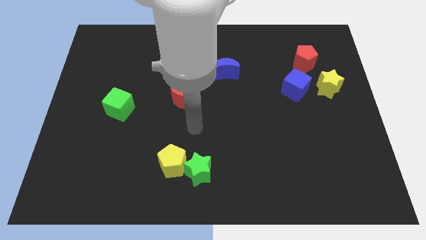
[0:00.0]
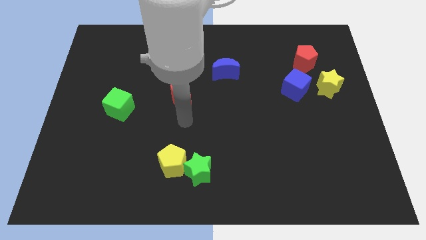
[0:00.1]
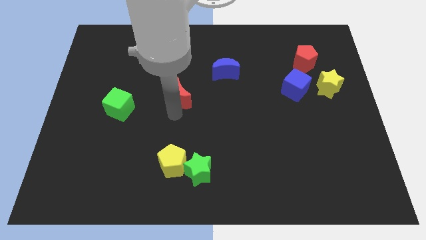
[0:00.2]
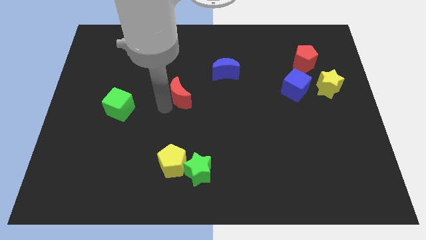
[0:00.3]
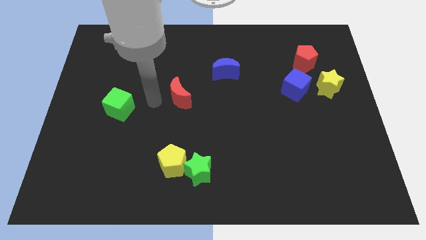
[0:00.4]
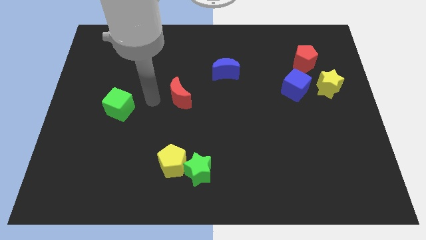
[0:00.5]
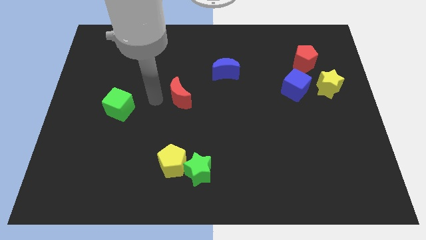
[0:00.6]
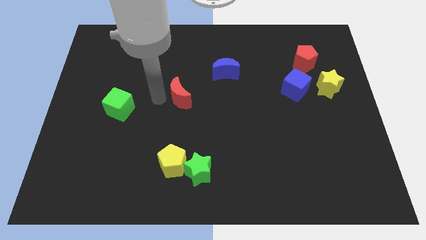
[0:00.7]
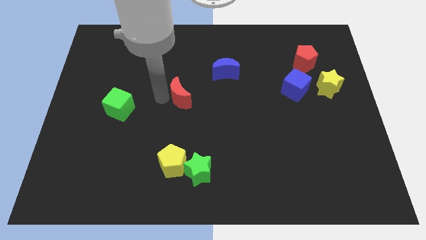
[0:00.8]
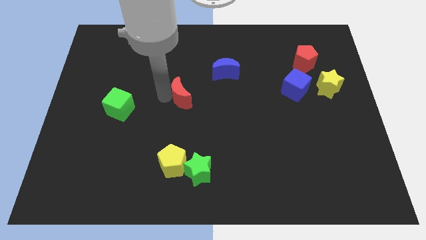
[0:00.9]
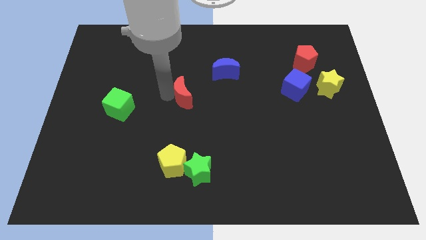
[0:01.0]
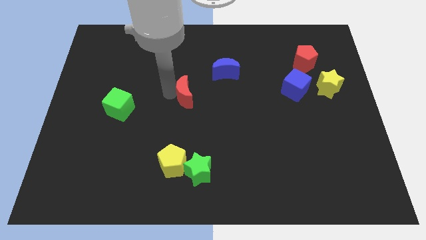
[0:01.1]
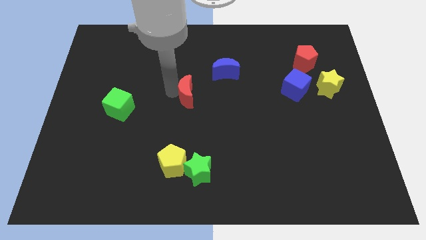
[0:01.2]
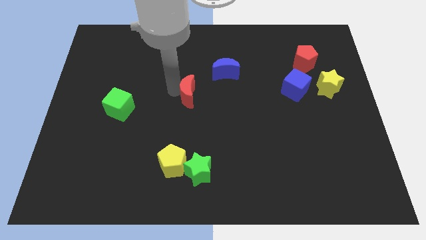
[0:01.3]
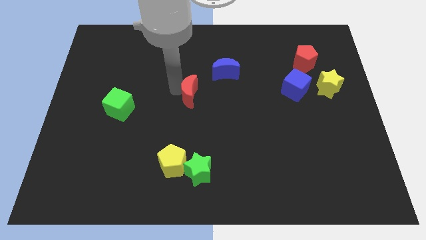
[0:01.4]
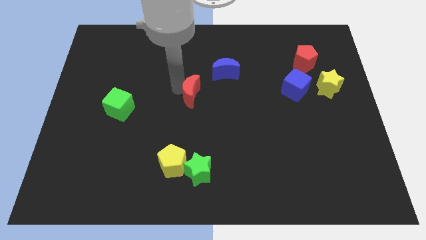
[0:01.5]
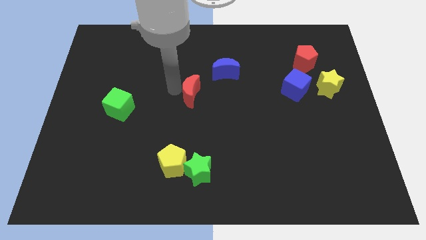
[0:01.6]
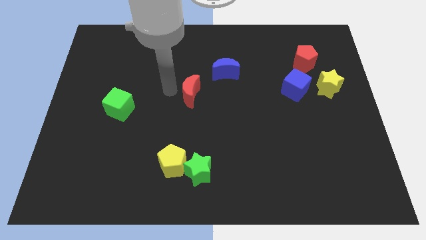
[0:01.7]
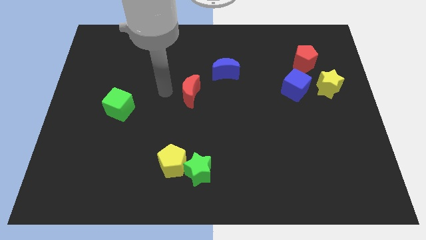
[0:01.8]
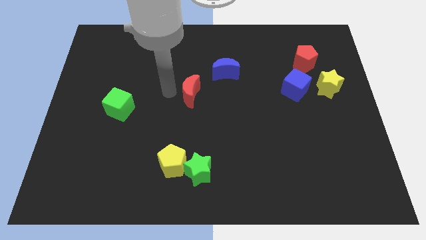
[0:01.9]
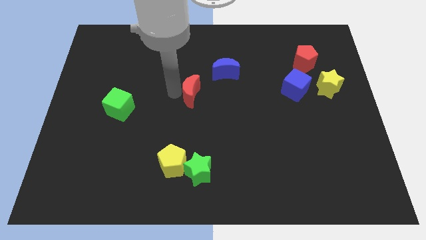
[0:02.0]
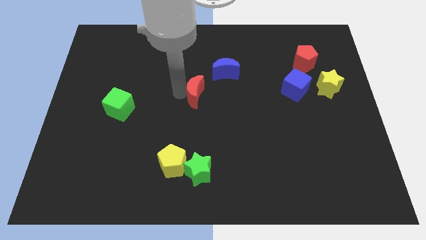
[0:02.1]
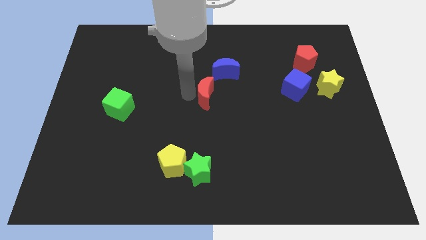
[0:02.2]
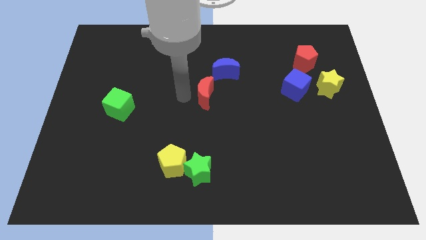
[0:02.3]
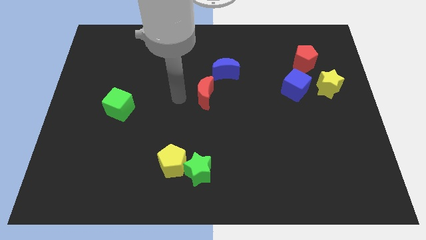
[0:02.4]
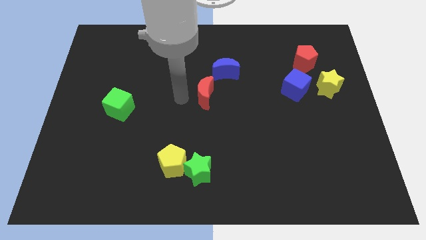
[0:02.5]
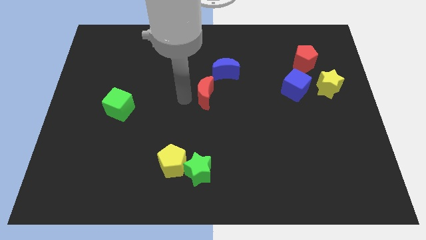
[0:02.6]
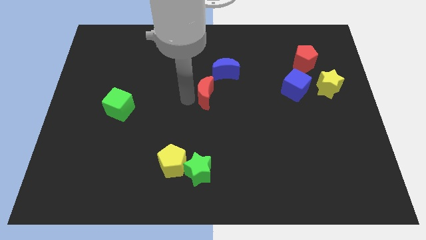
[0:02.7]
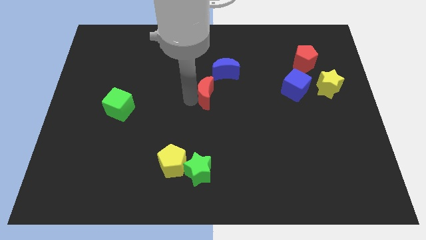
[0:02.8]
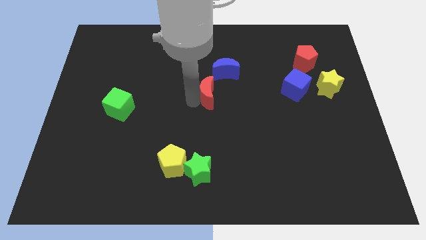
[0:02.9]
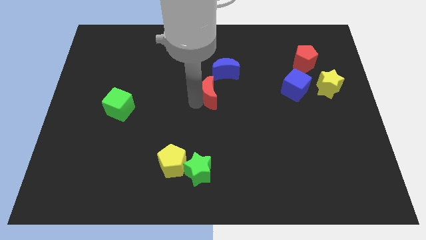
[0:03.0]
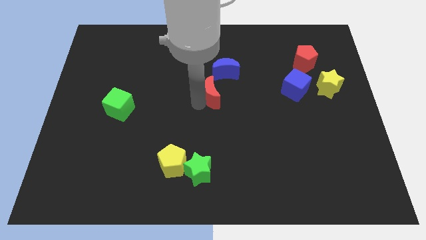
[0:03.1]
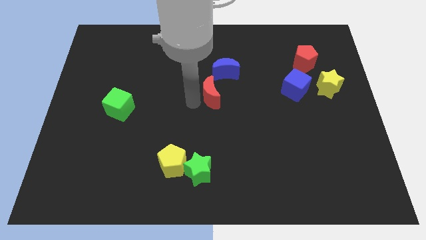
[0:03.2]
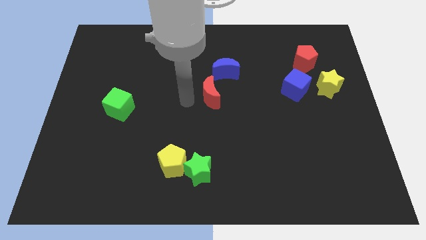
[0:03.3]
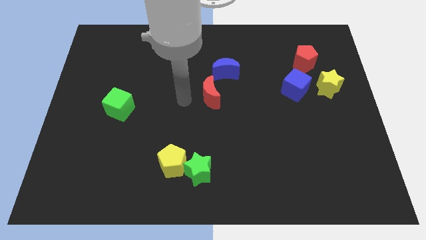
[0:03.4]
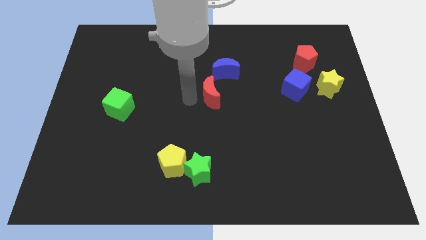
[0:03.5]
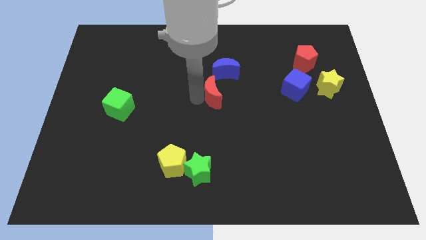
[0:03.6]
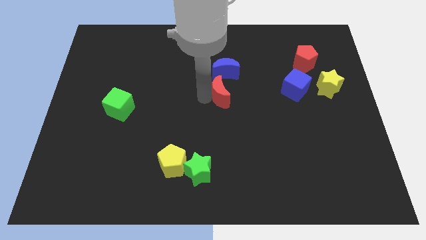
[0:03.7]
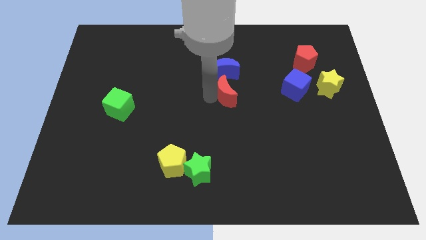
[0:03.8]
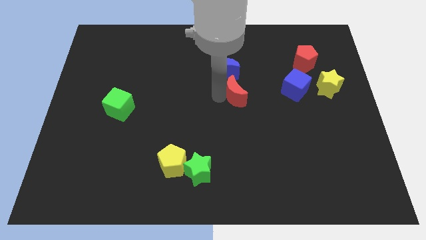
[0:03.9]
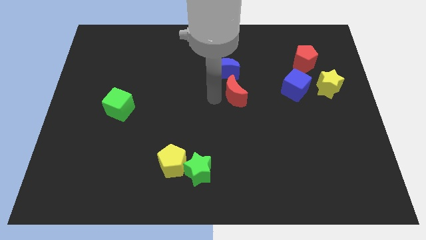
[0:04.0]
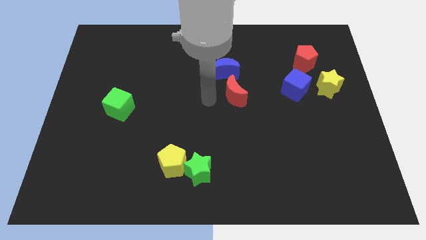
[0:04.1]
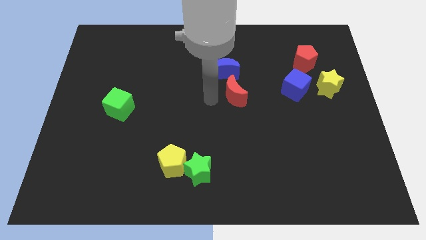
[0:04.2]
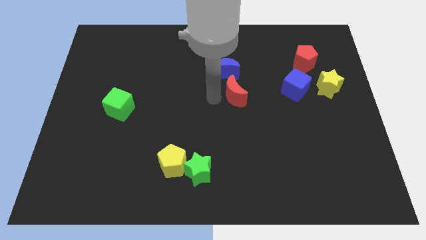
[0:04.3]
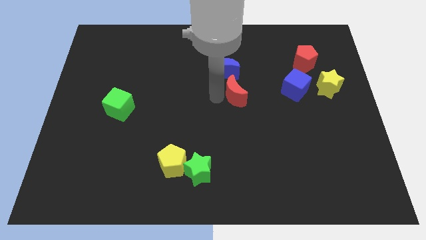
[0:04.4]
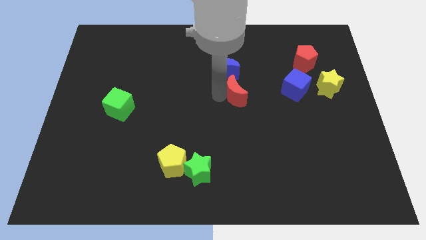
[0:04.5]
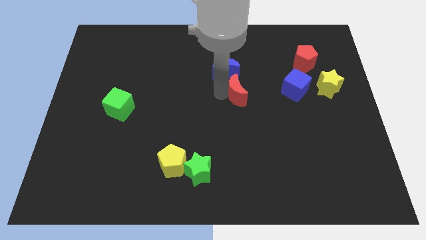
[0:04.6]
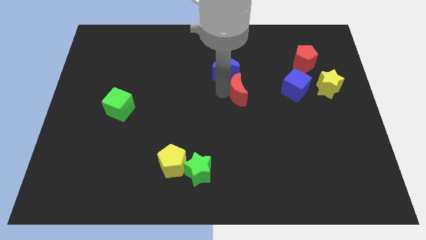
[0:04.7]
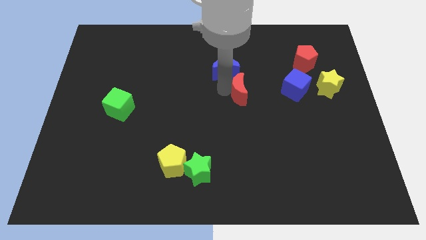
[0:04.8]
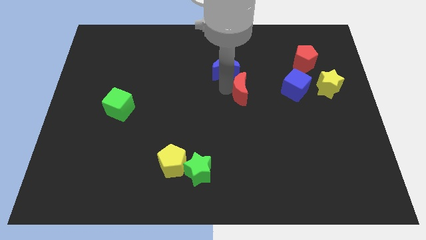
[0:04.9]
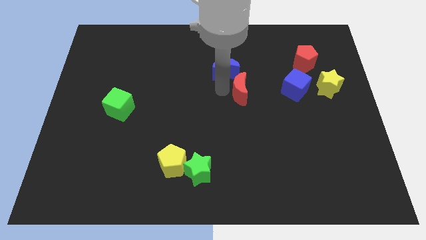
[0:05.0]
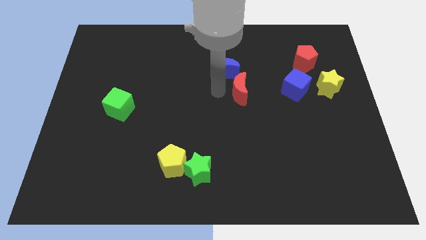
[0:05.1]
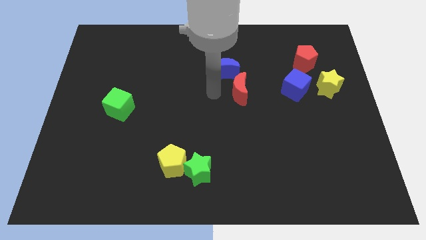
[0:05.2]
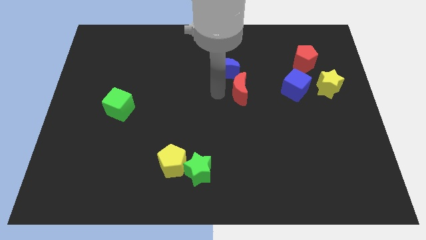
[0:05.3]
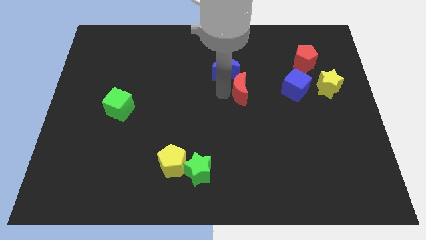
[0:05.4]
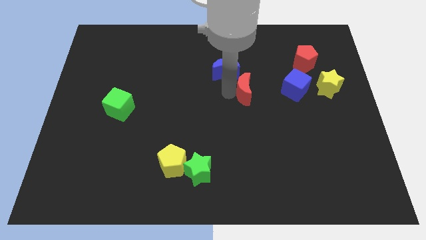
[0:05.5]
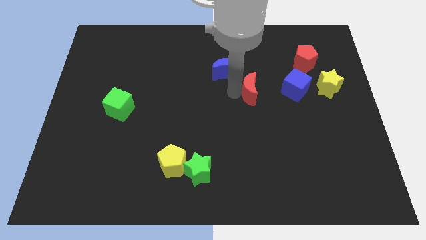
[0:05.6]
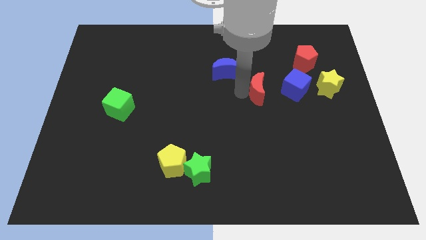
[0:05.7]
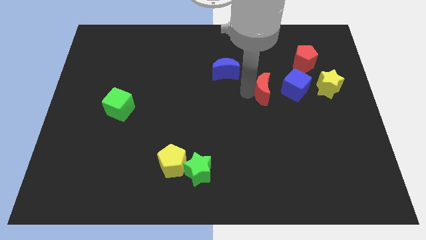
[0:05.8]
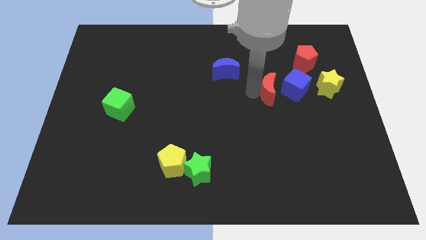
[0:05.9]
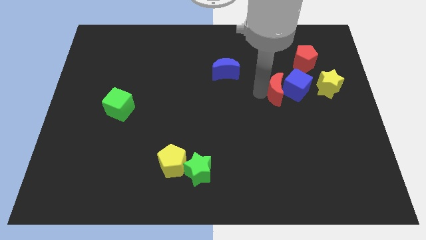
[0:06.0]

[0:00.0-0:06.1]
put the red moon towards the blue cube
